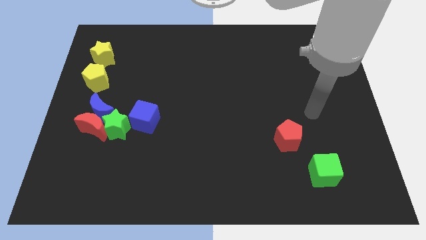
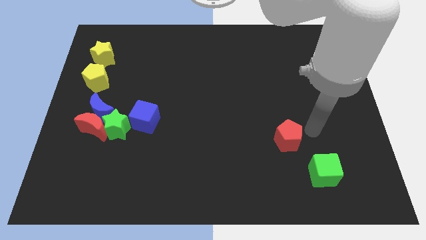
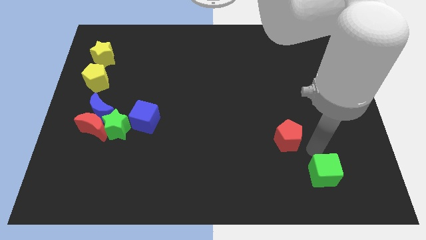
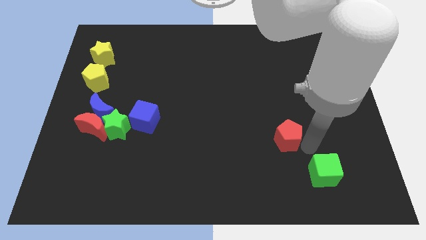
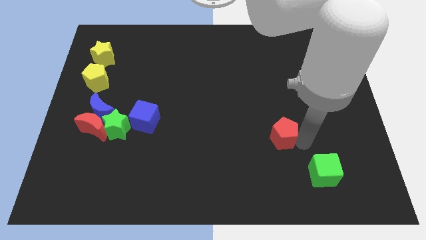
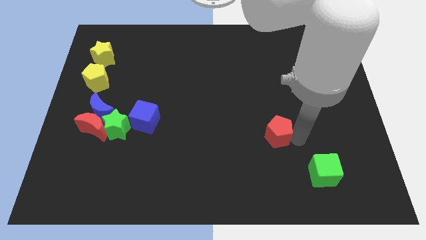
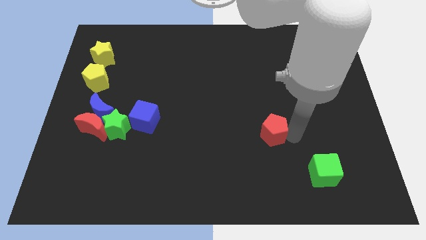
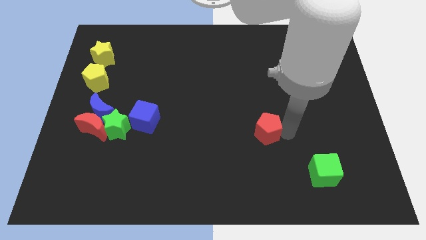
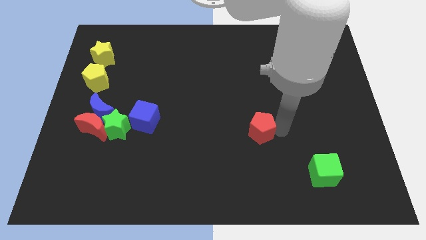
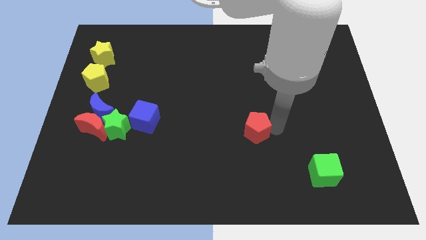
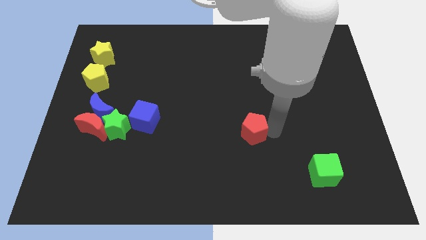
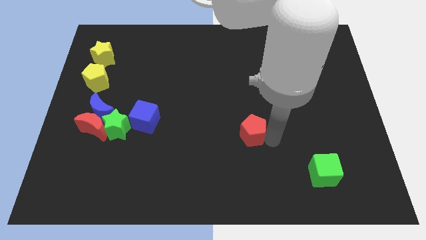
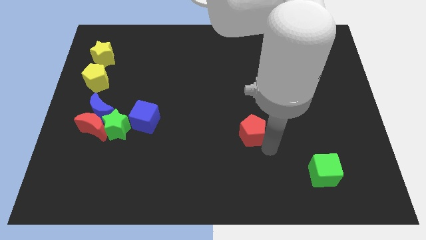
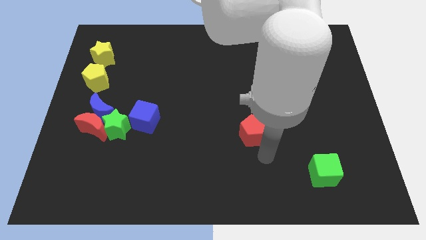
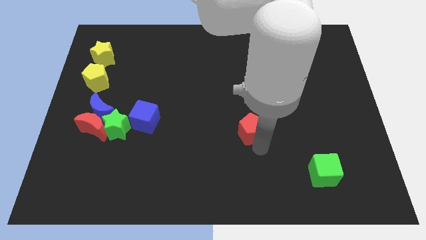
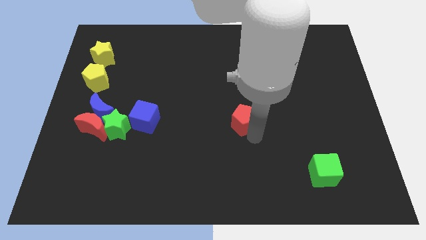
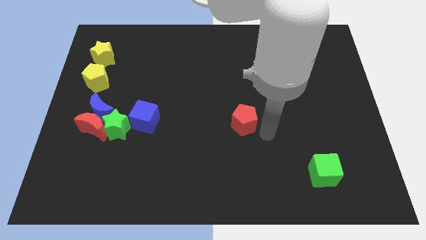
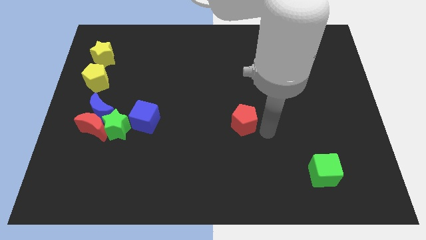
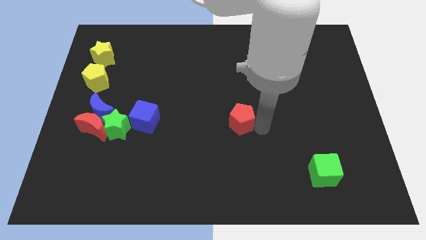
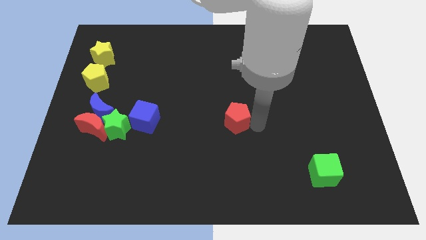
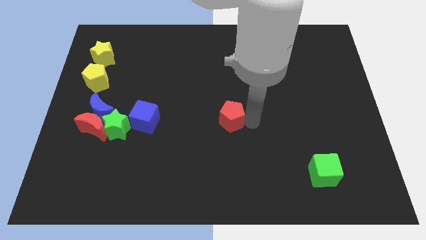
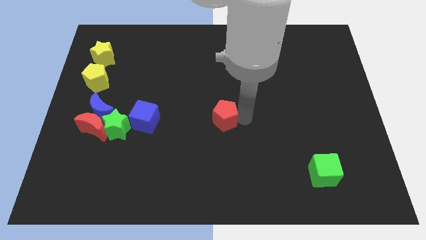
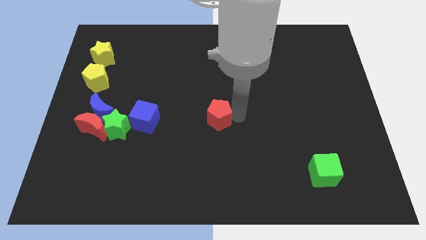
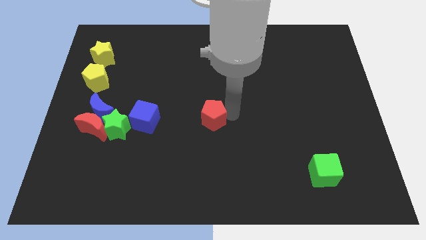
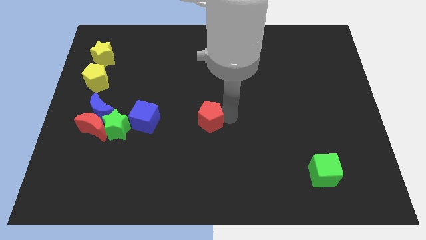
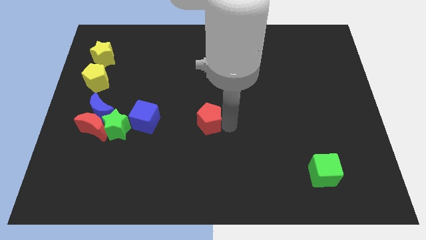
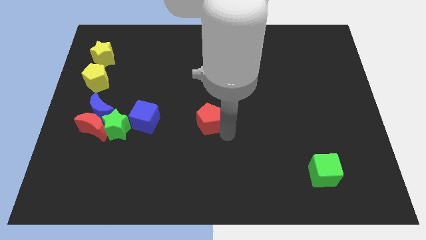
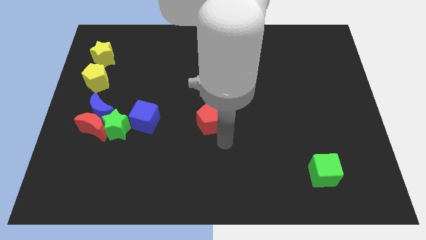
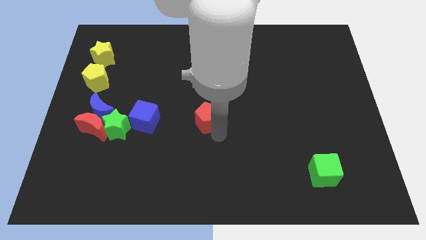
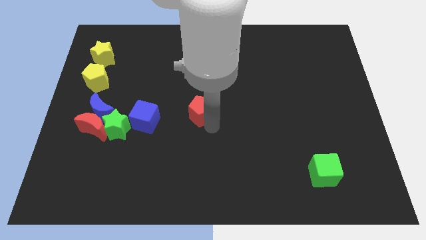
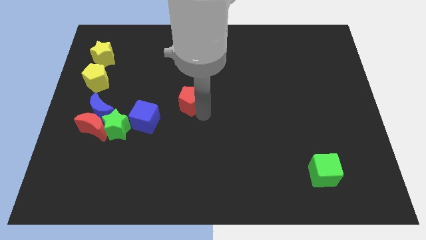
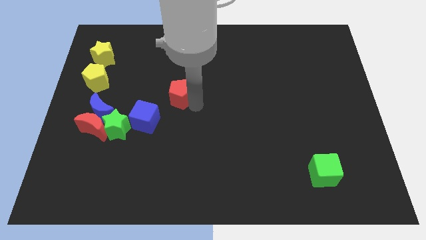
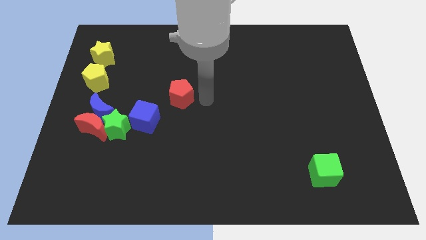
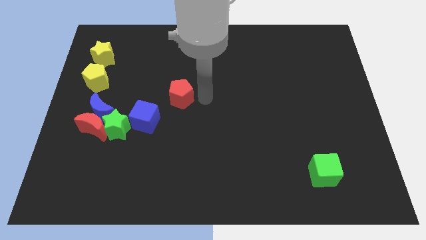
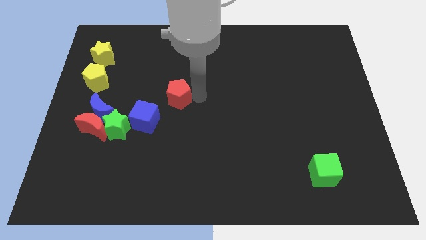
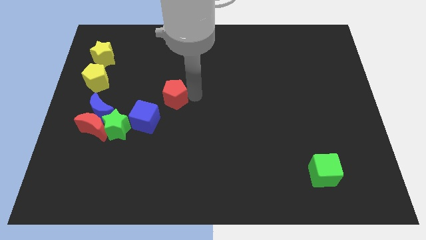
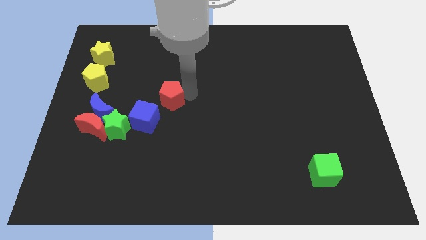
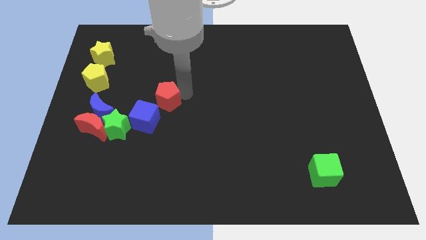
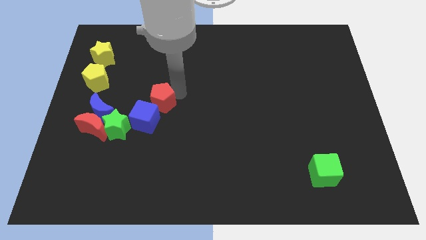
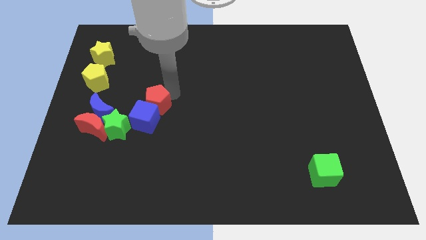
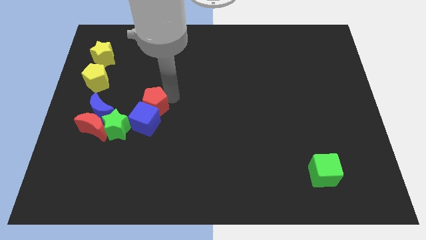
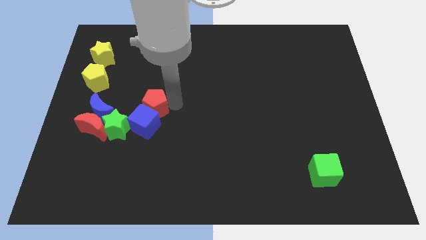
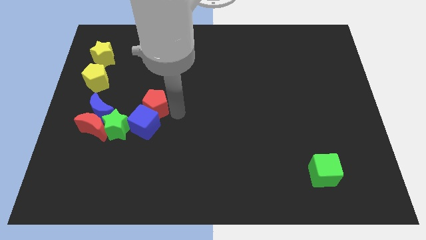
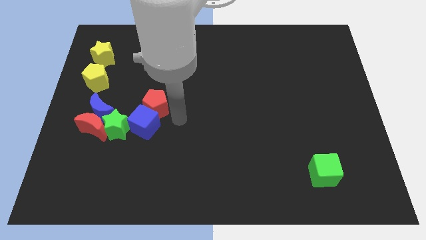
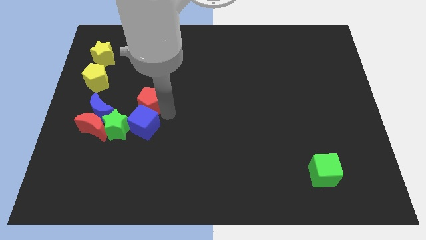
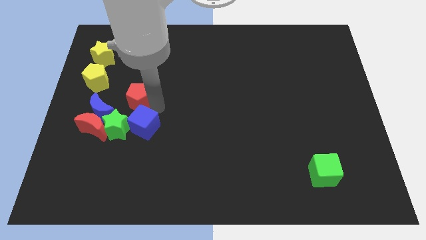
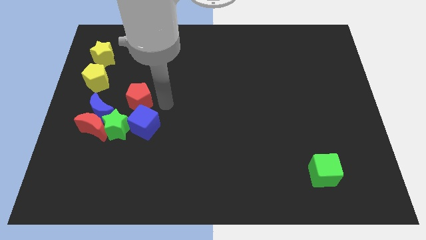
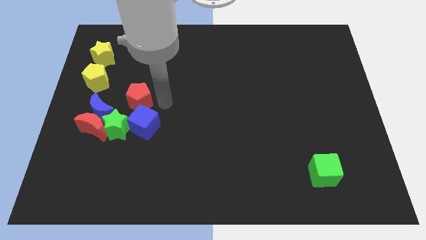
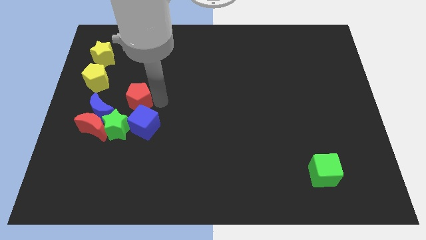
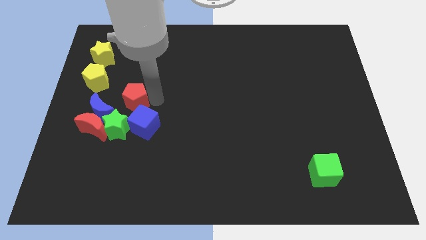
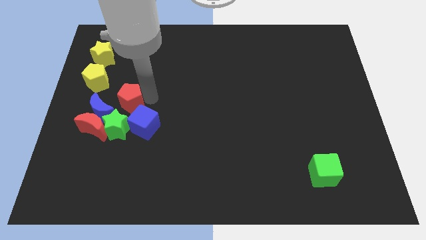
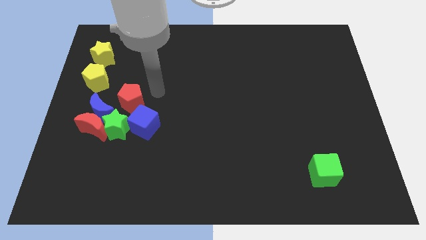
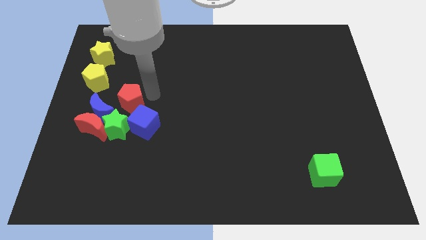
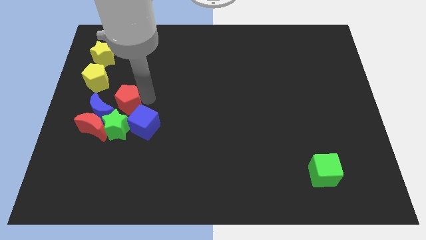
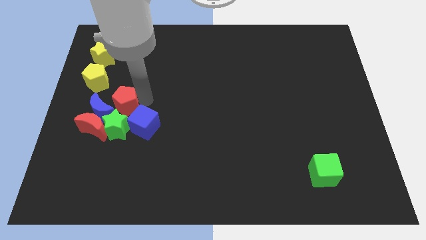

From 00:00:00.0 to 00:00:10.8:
move the red pentagon next to the blue moon

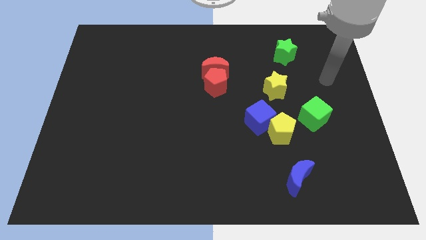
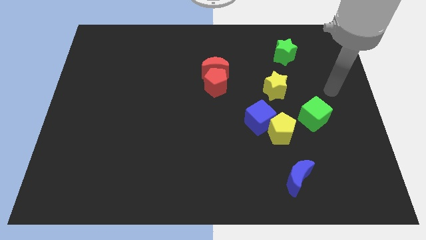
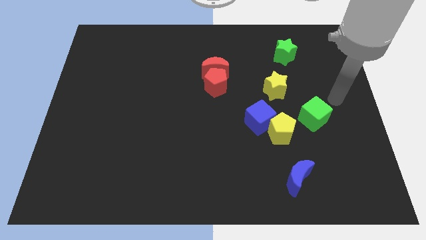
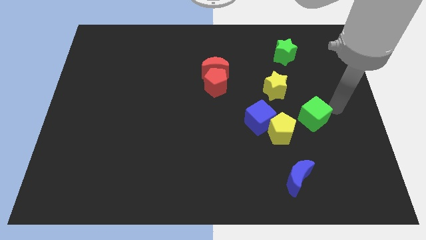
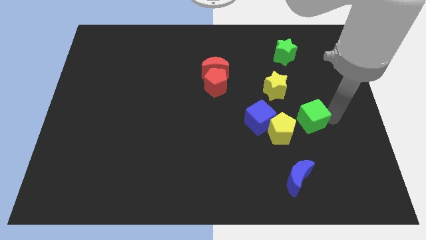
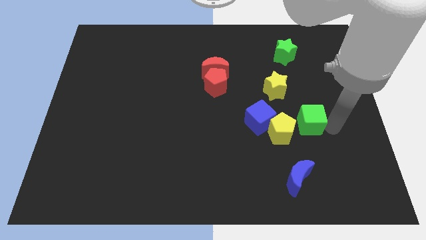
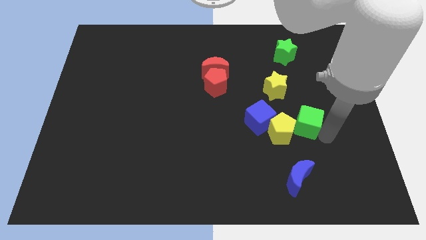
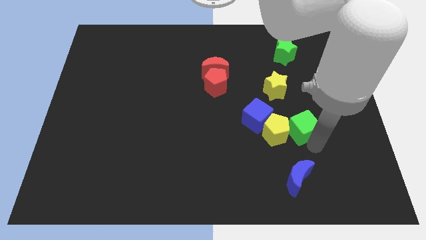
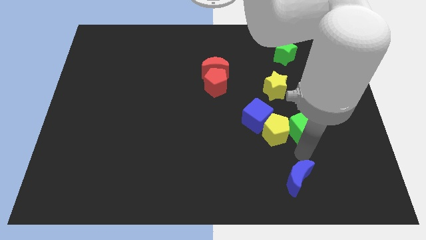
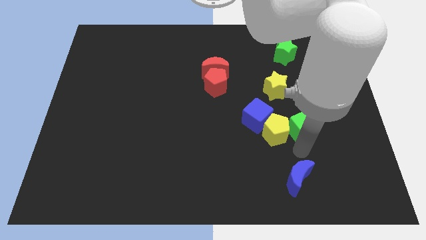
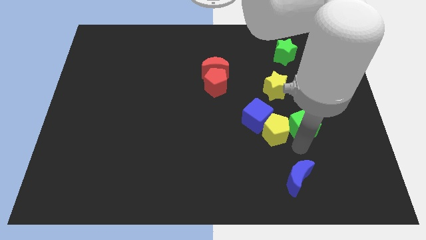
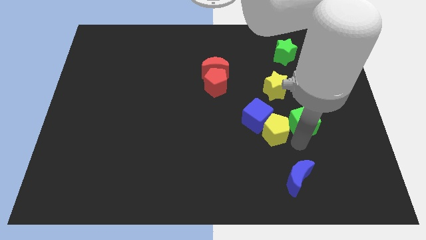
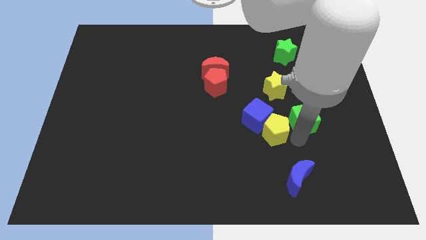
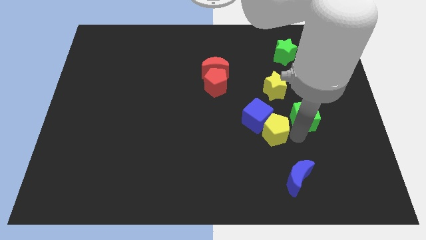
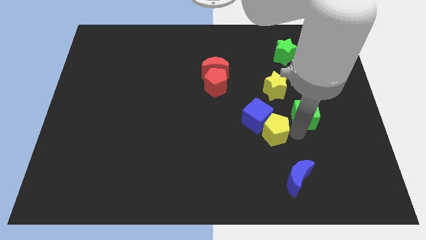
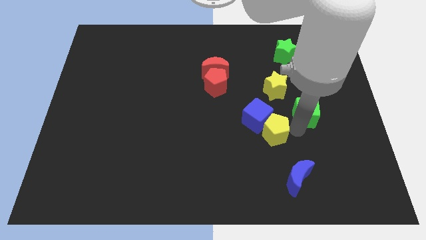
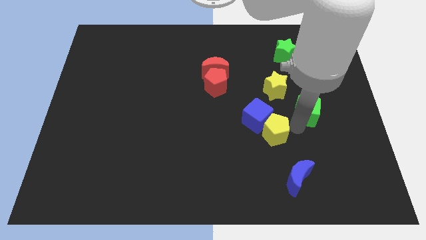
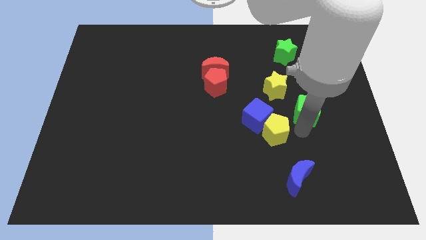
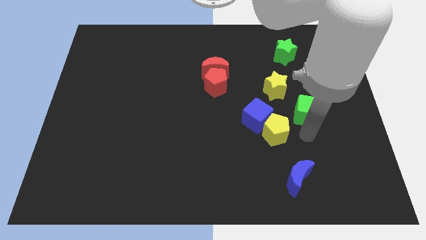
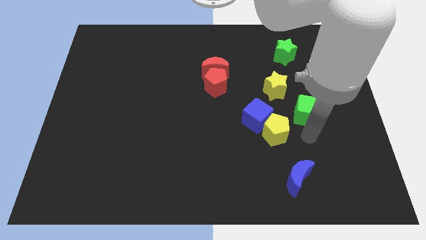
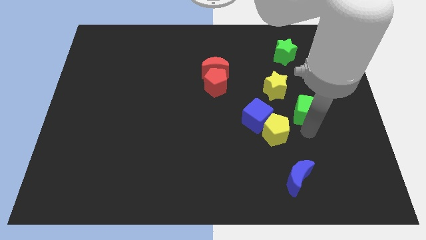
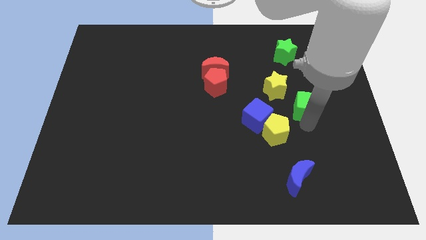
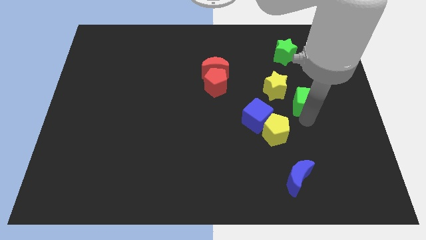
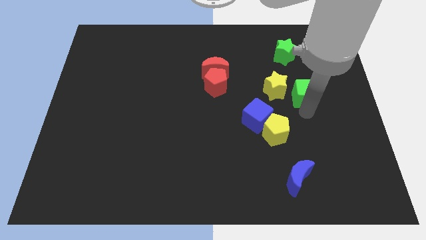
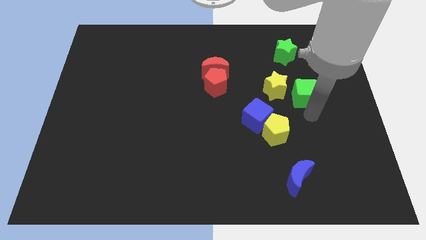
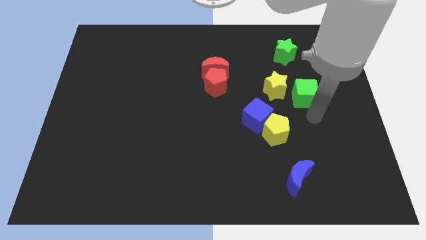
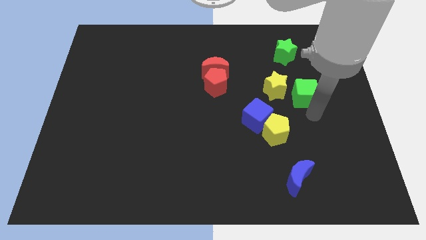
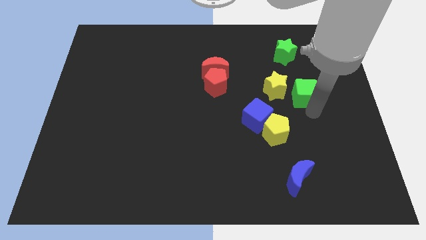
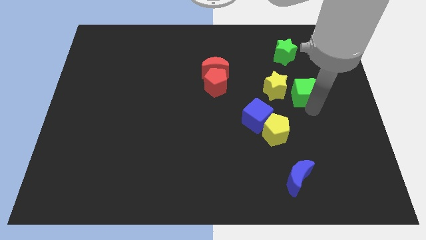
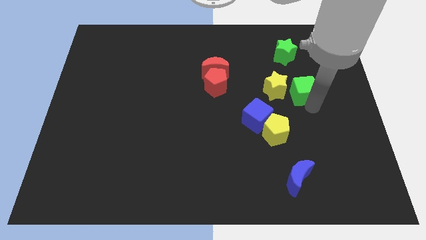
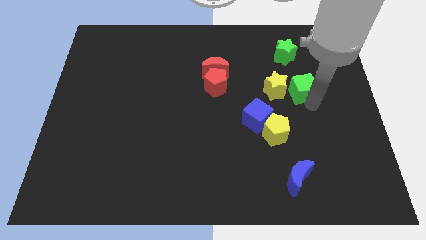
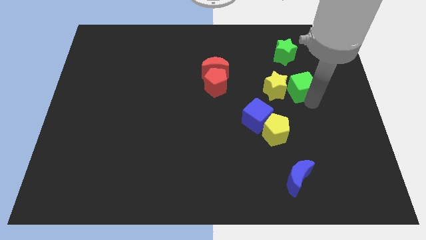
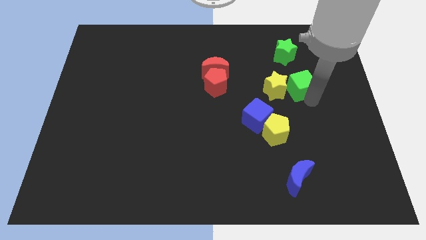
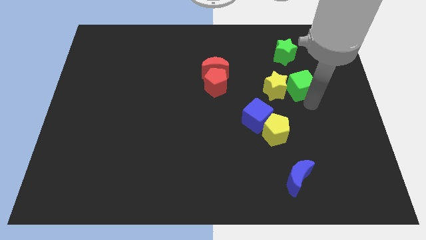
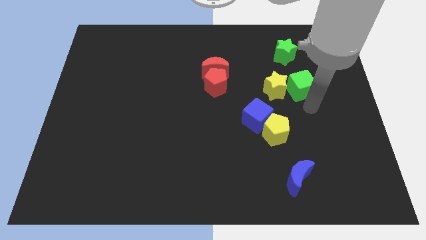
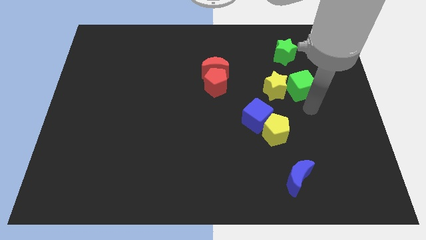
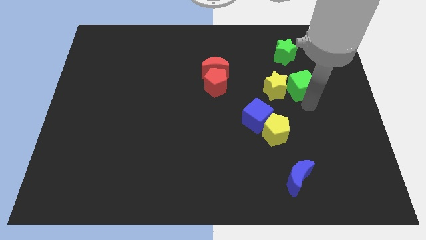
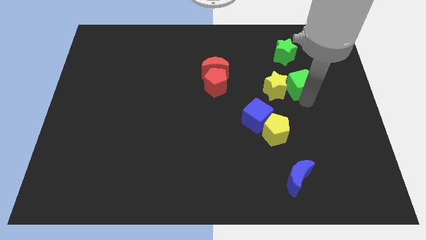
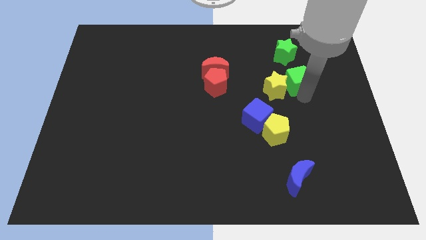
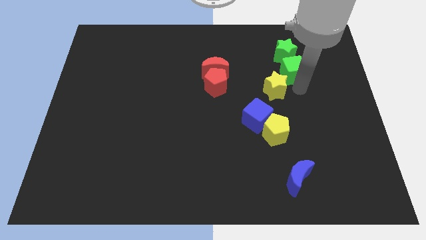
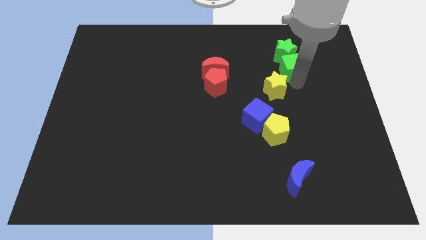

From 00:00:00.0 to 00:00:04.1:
push the green cube close to the green star
